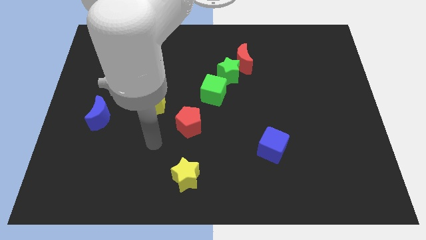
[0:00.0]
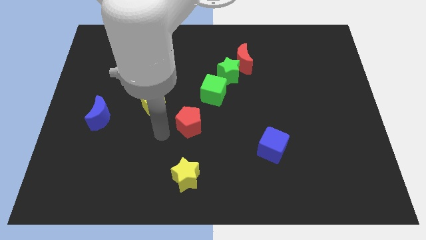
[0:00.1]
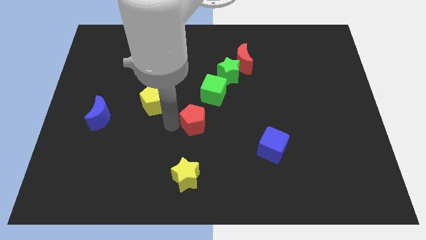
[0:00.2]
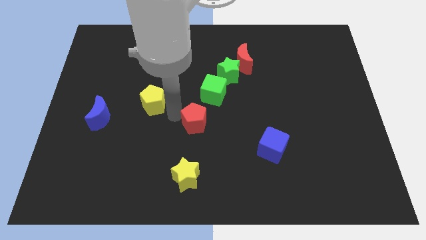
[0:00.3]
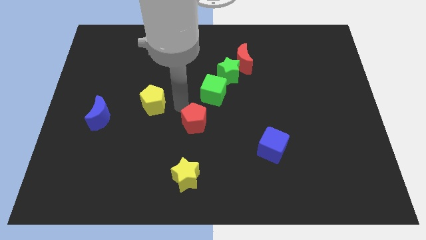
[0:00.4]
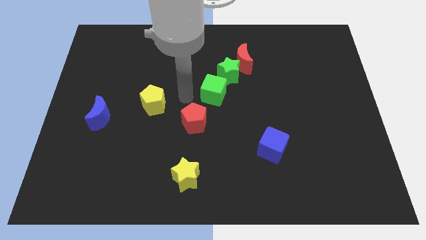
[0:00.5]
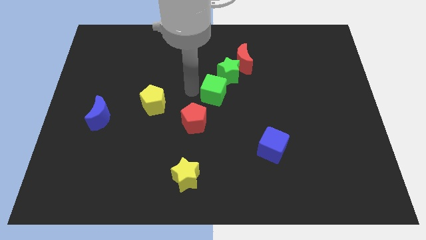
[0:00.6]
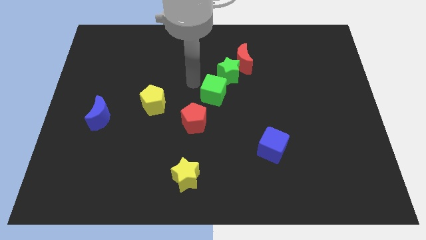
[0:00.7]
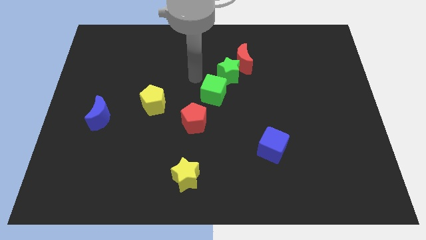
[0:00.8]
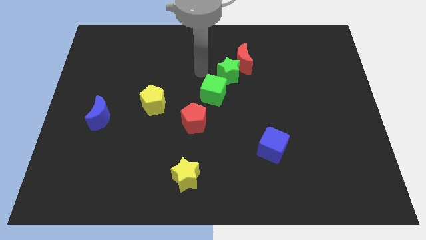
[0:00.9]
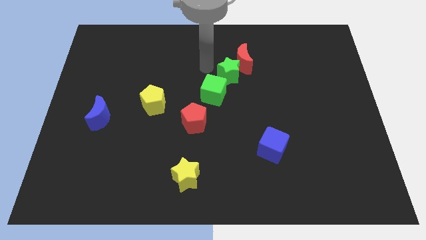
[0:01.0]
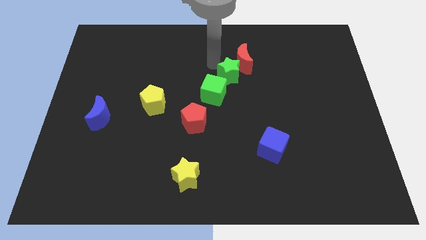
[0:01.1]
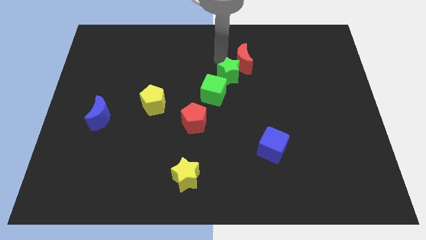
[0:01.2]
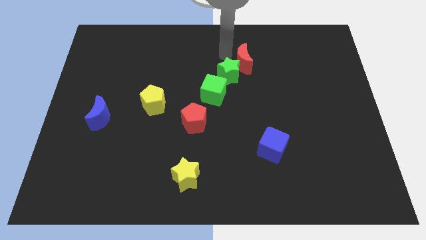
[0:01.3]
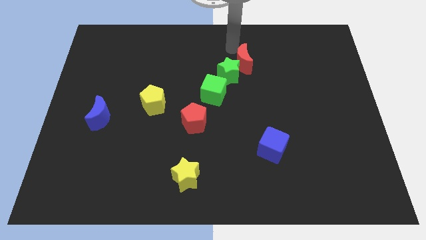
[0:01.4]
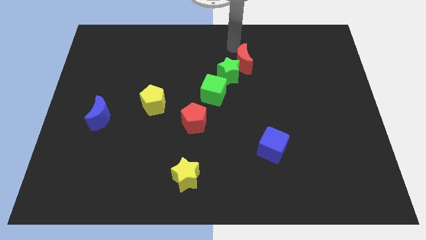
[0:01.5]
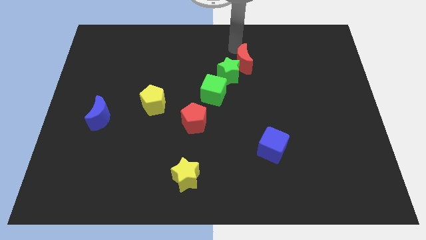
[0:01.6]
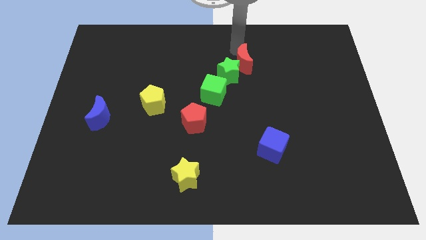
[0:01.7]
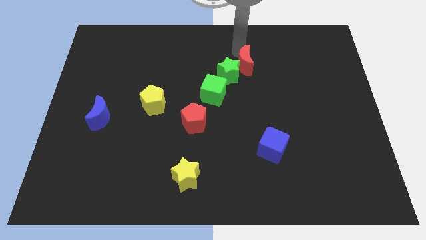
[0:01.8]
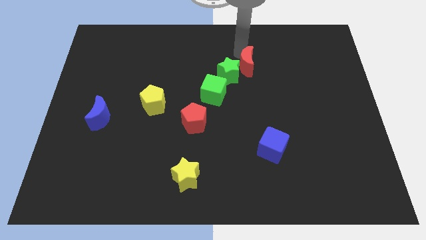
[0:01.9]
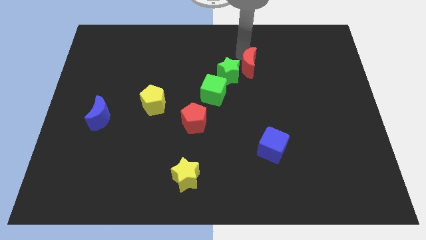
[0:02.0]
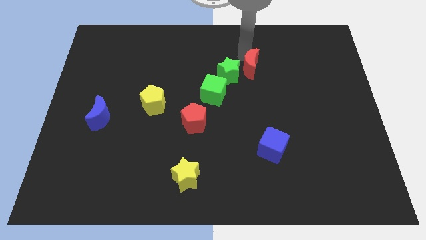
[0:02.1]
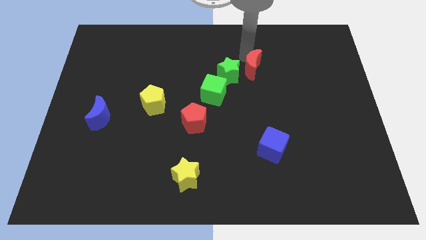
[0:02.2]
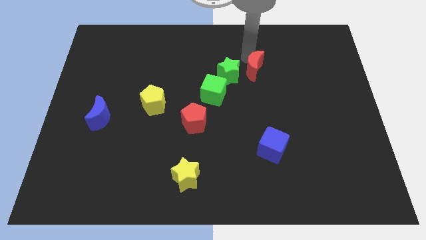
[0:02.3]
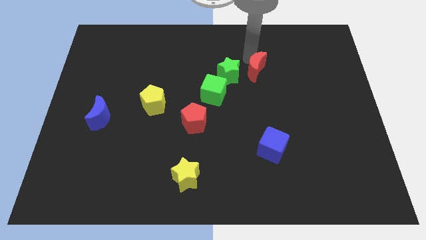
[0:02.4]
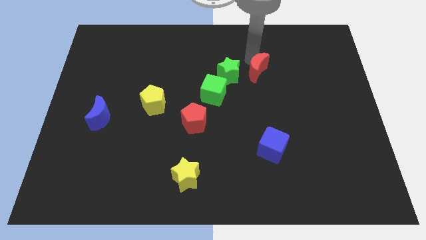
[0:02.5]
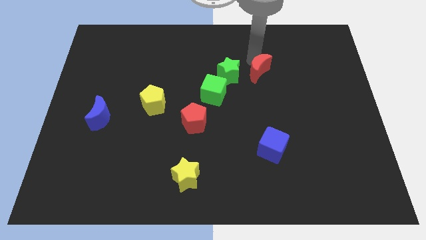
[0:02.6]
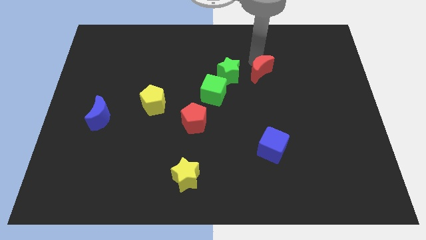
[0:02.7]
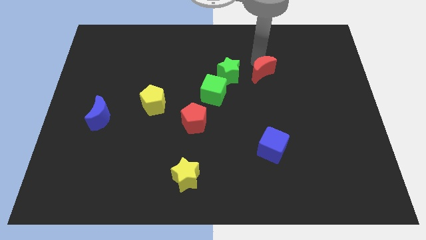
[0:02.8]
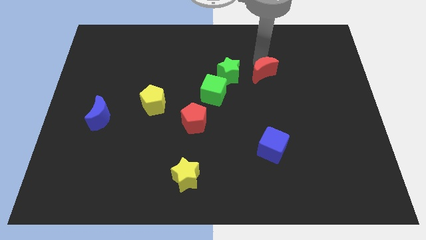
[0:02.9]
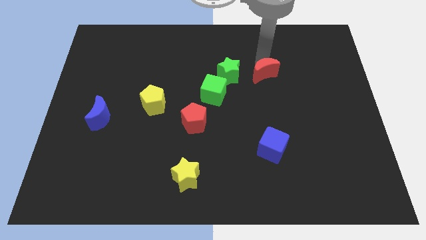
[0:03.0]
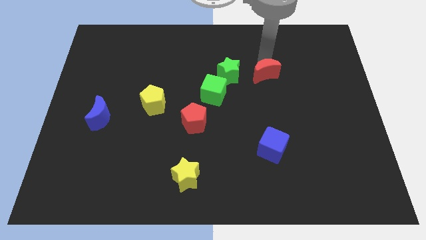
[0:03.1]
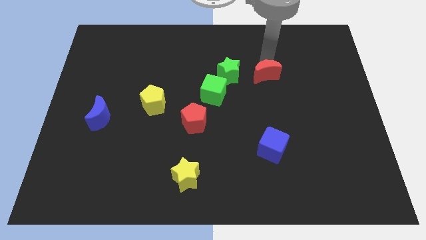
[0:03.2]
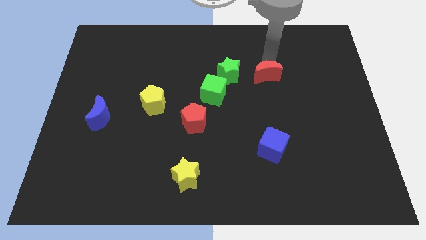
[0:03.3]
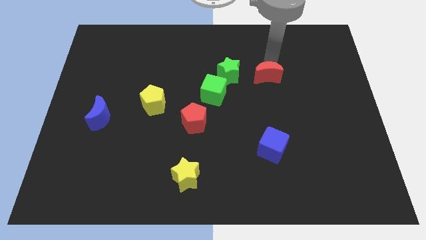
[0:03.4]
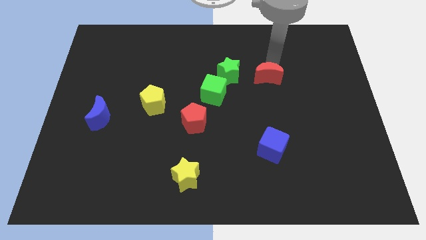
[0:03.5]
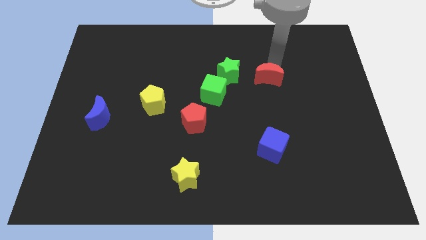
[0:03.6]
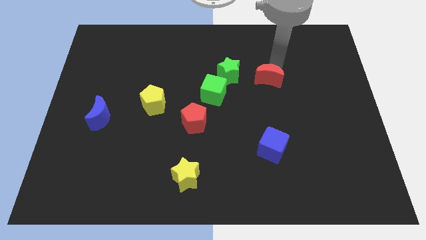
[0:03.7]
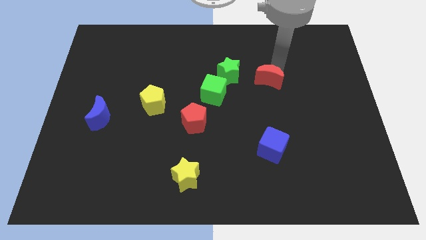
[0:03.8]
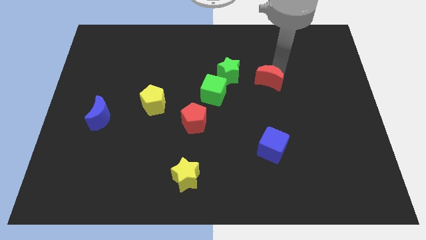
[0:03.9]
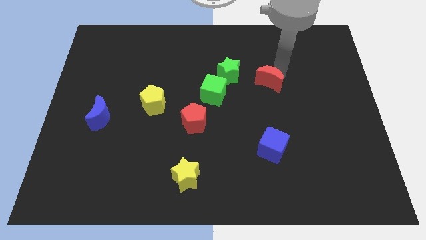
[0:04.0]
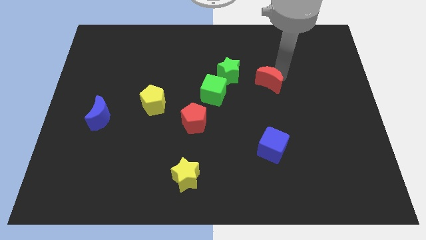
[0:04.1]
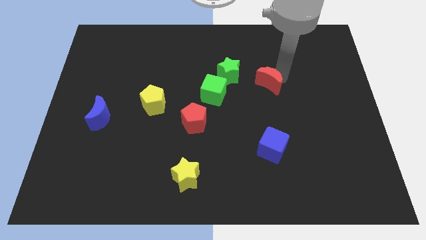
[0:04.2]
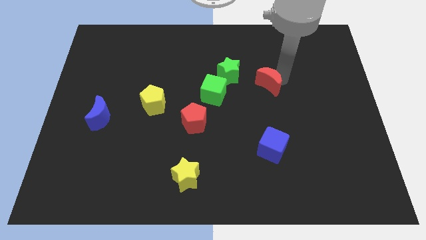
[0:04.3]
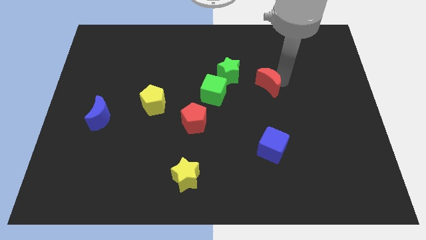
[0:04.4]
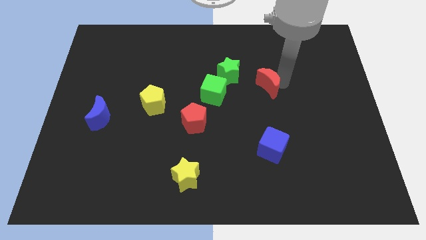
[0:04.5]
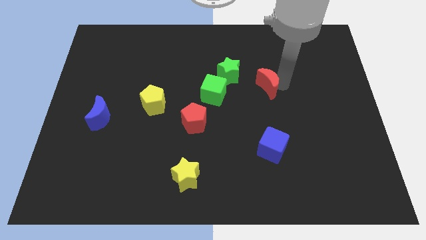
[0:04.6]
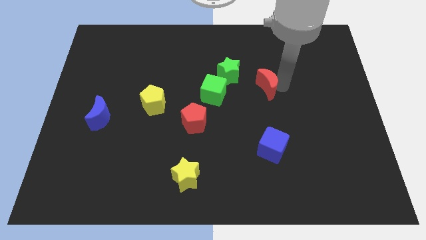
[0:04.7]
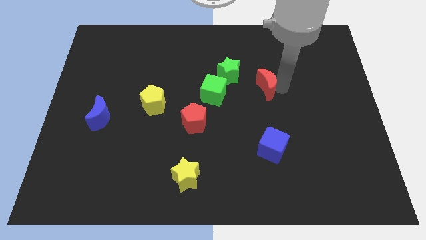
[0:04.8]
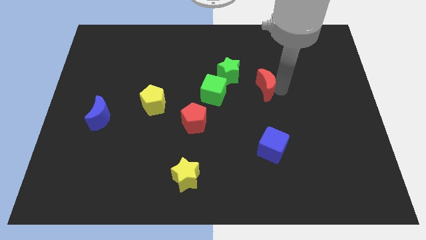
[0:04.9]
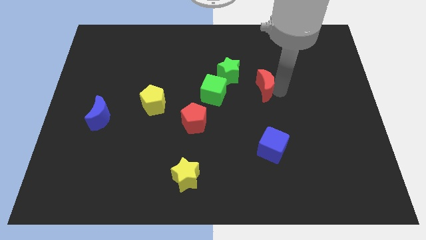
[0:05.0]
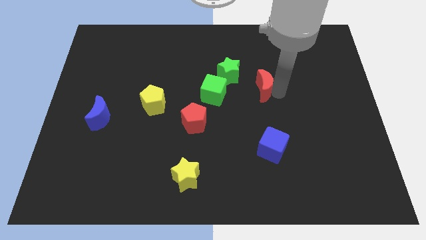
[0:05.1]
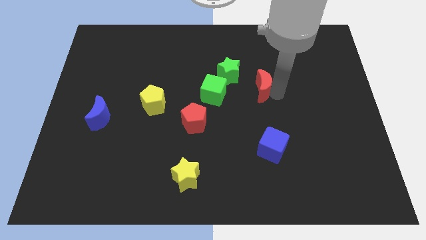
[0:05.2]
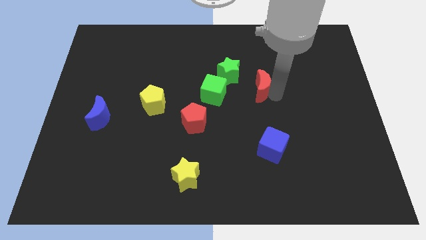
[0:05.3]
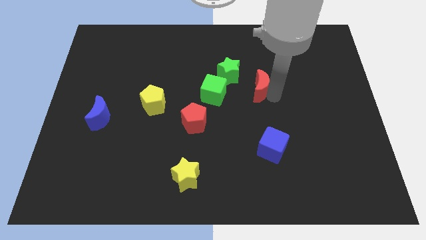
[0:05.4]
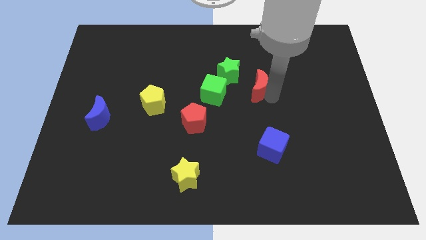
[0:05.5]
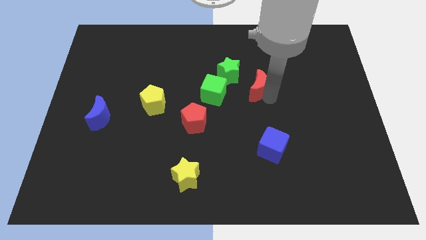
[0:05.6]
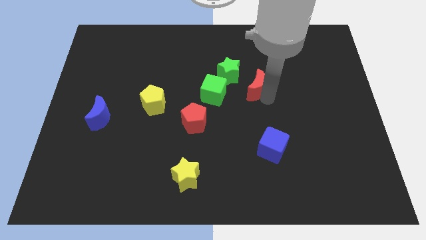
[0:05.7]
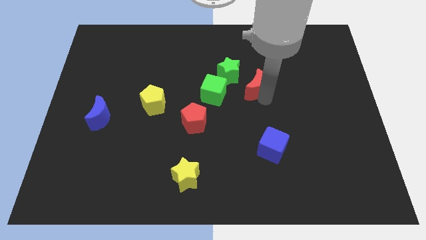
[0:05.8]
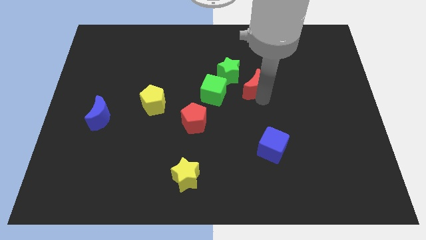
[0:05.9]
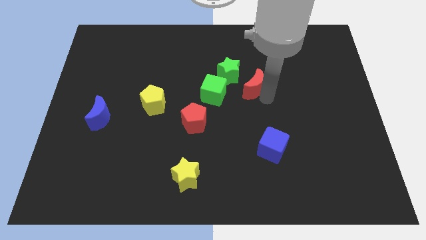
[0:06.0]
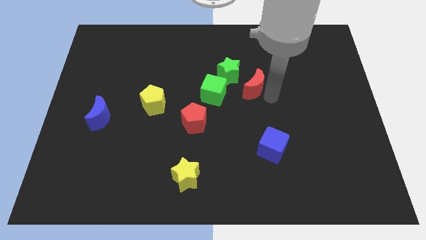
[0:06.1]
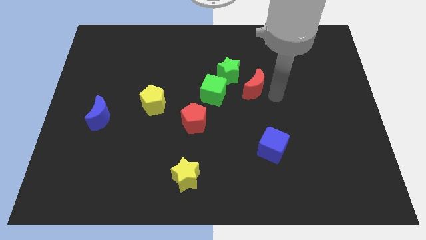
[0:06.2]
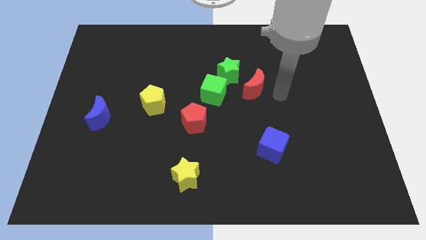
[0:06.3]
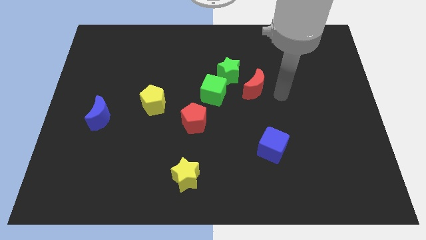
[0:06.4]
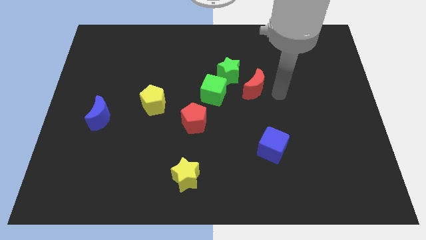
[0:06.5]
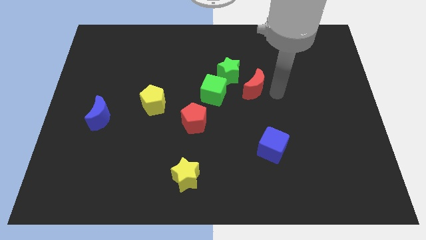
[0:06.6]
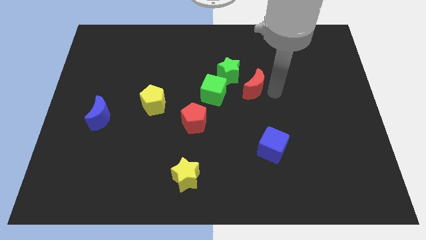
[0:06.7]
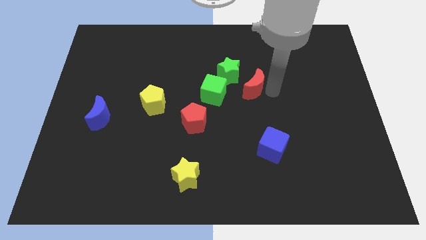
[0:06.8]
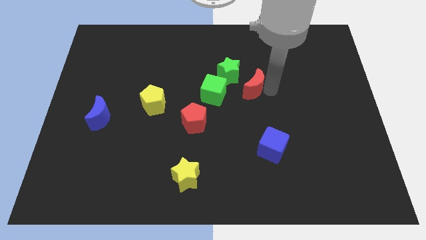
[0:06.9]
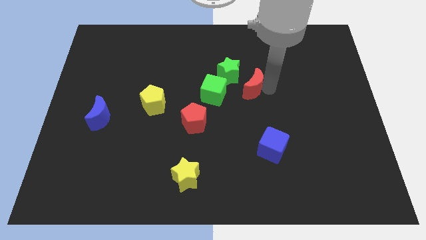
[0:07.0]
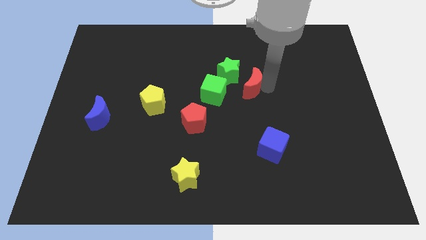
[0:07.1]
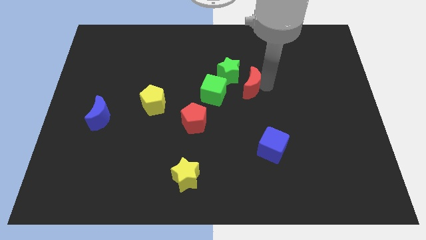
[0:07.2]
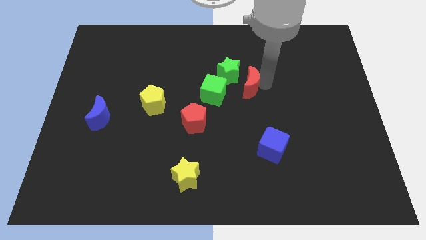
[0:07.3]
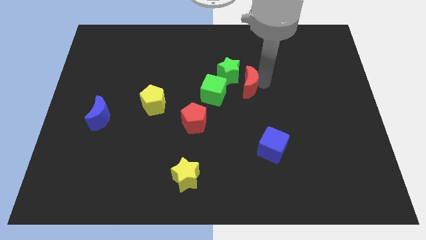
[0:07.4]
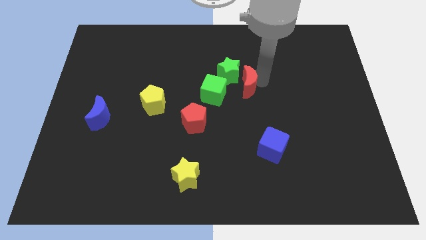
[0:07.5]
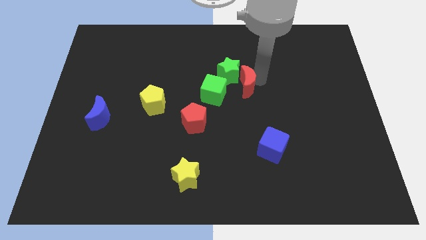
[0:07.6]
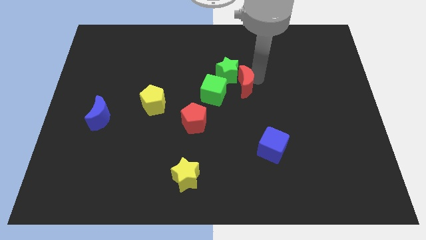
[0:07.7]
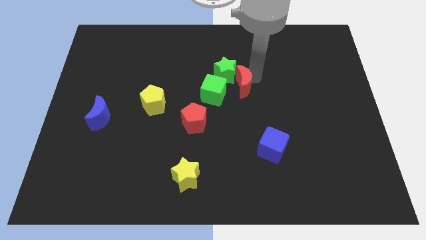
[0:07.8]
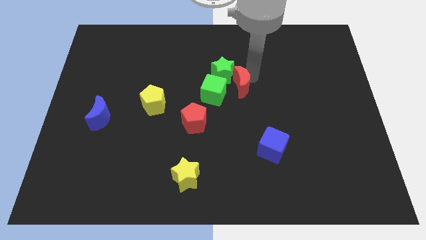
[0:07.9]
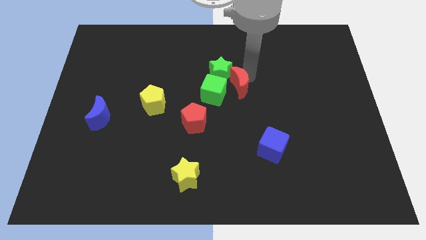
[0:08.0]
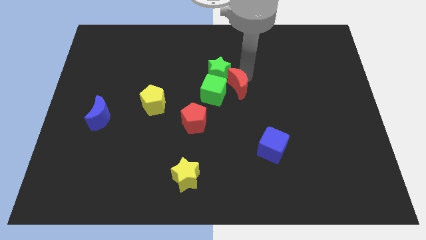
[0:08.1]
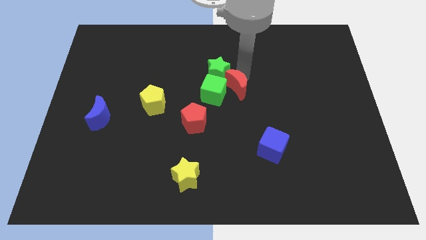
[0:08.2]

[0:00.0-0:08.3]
slide the red moon towards the green cube
